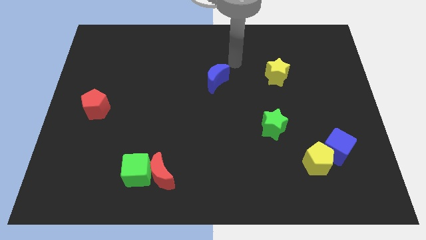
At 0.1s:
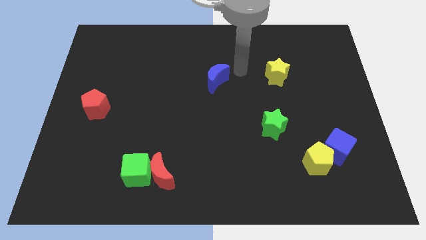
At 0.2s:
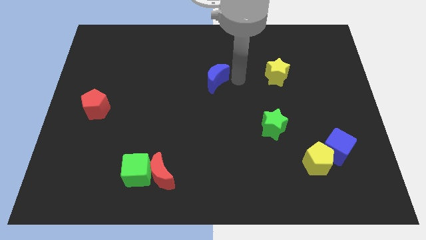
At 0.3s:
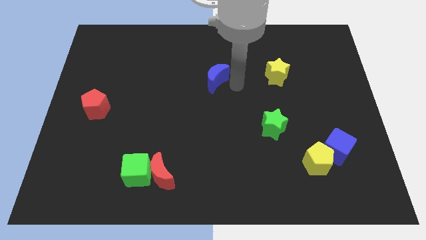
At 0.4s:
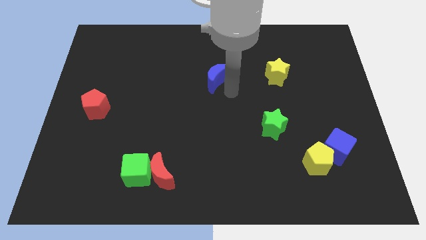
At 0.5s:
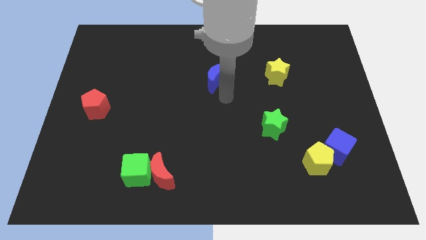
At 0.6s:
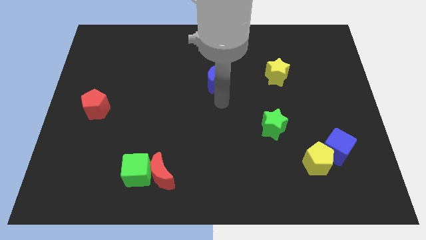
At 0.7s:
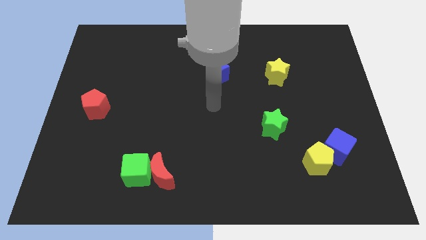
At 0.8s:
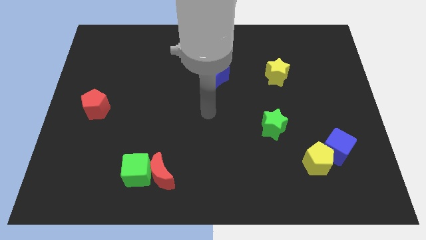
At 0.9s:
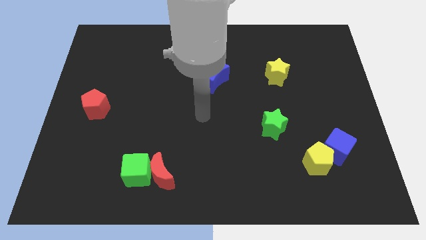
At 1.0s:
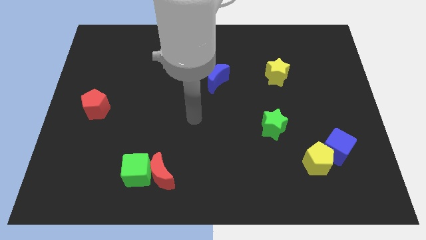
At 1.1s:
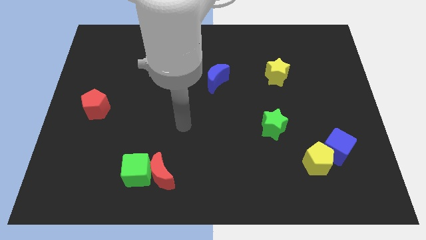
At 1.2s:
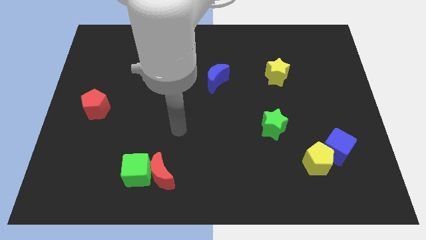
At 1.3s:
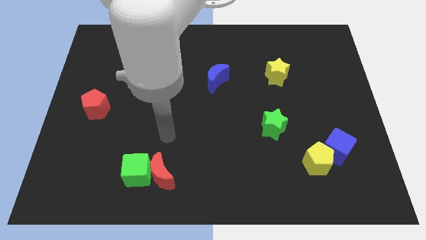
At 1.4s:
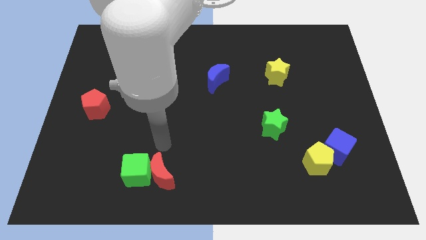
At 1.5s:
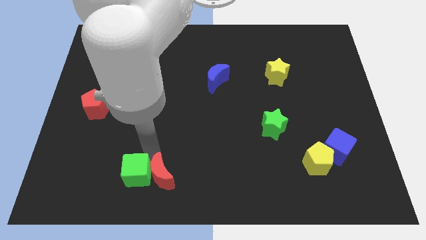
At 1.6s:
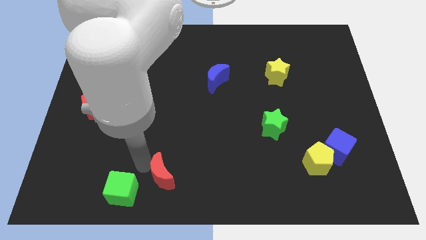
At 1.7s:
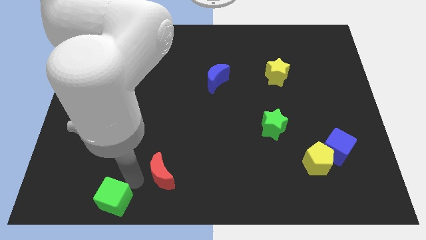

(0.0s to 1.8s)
move the red moon away from the green cube

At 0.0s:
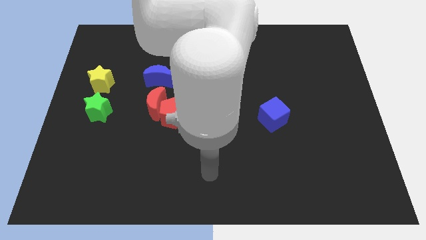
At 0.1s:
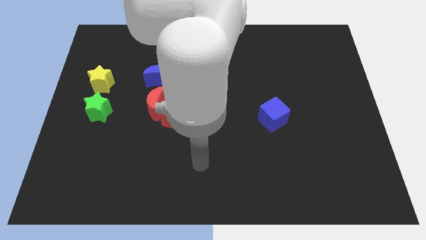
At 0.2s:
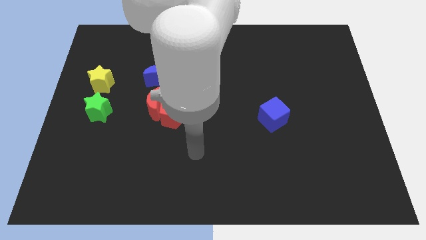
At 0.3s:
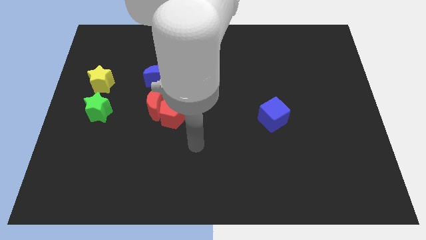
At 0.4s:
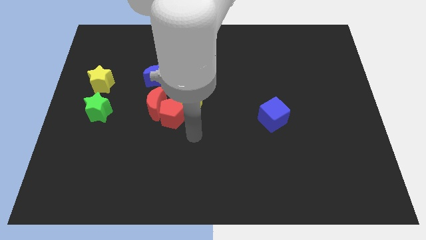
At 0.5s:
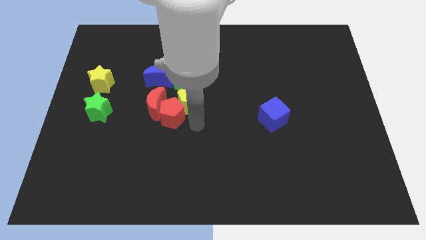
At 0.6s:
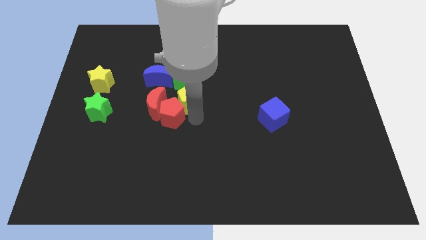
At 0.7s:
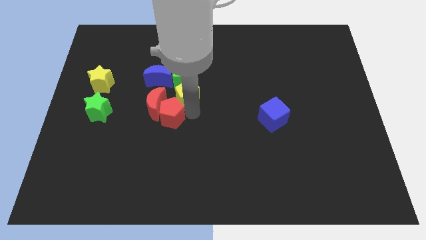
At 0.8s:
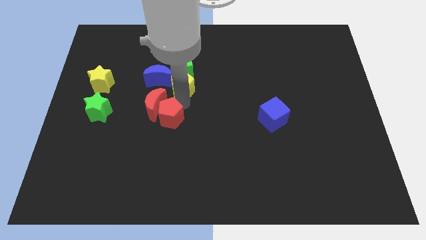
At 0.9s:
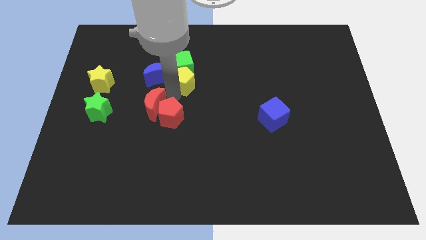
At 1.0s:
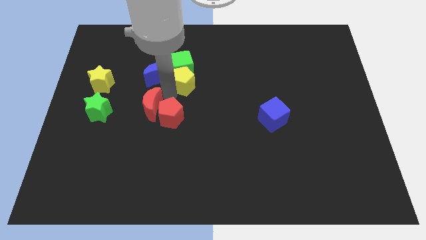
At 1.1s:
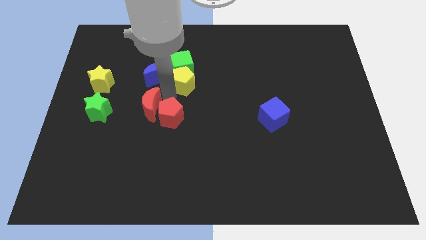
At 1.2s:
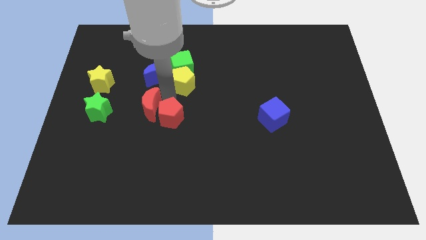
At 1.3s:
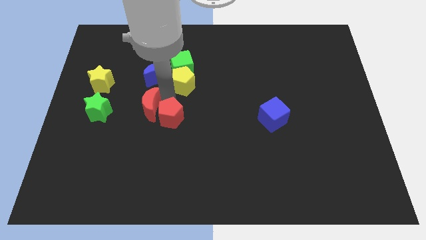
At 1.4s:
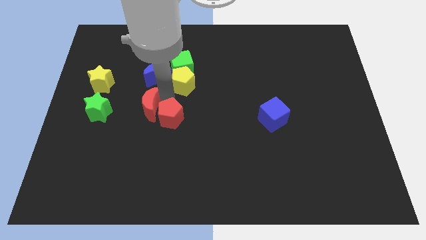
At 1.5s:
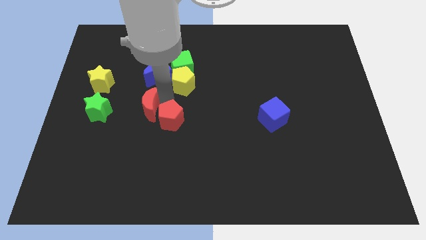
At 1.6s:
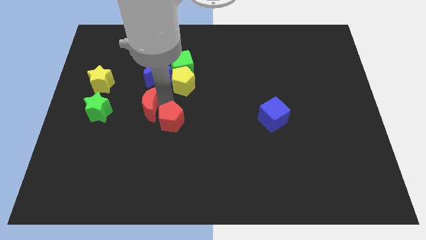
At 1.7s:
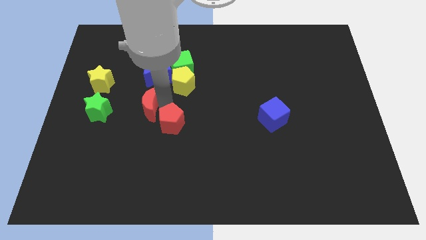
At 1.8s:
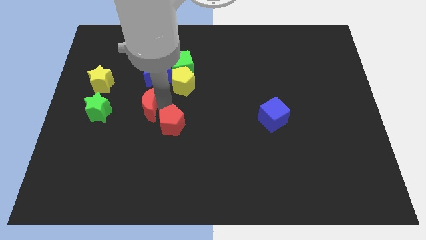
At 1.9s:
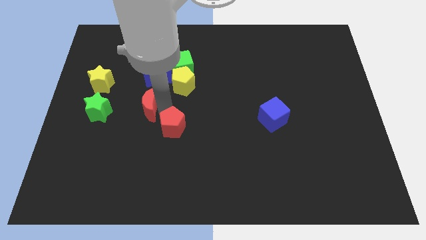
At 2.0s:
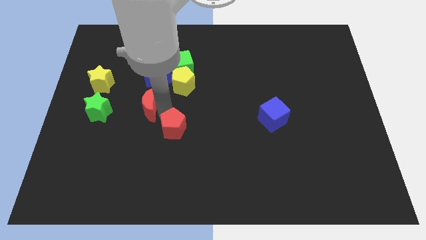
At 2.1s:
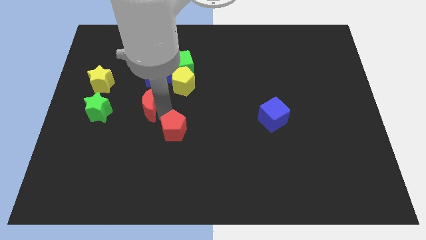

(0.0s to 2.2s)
pull the red pentagon apart from the red moon and yellow pentagon

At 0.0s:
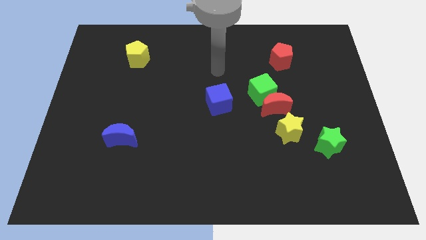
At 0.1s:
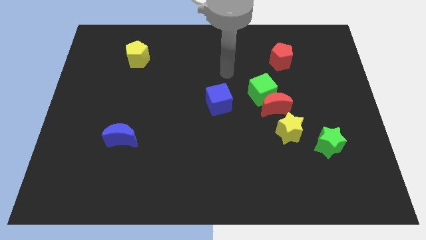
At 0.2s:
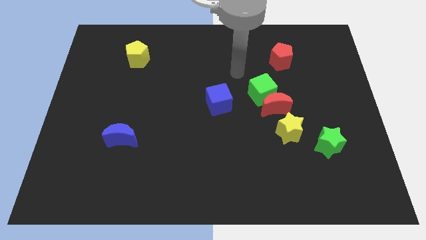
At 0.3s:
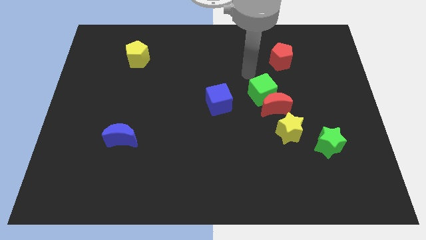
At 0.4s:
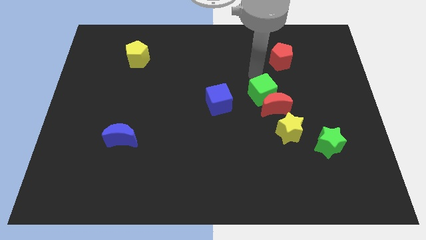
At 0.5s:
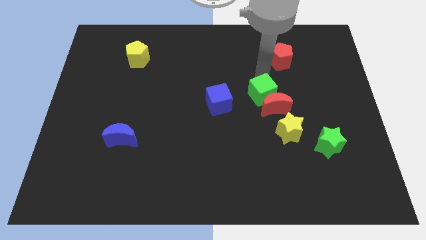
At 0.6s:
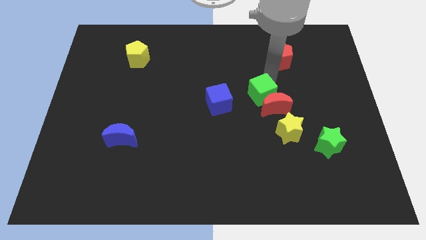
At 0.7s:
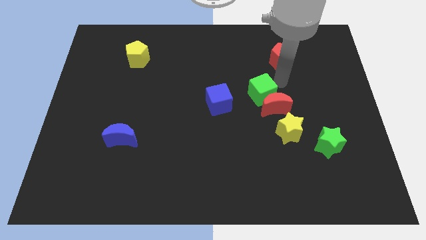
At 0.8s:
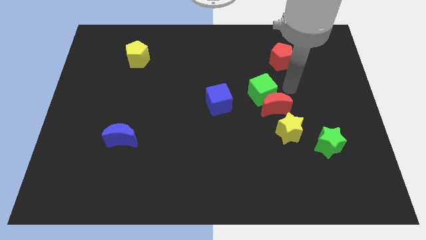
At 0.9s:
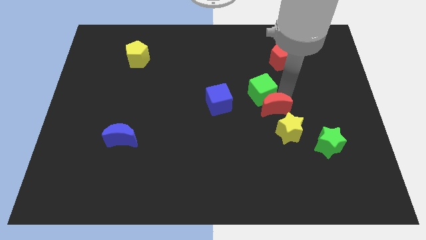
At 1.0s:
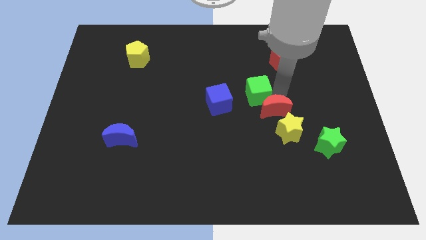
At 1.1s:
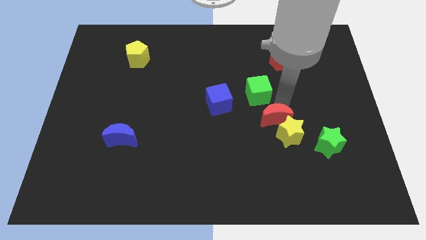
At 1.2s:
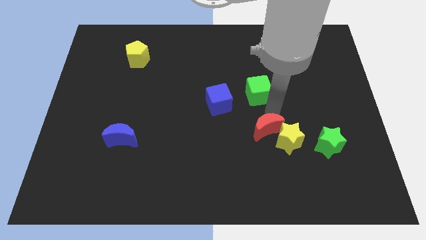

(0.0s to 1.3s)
move the green cube away from the red moon

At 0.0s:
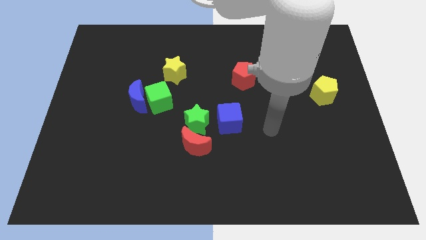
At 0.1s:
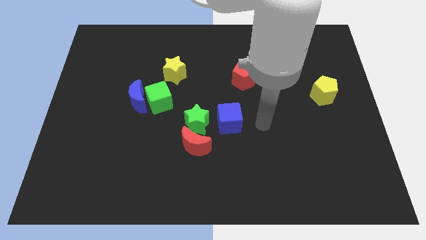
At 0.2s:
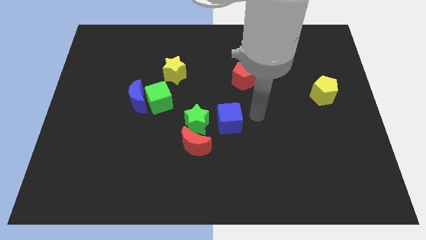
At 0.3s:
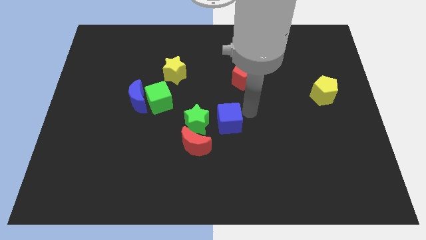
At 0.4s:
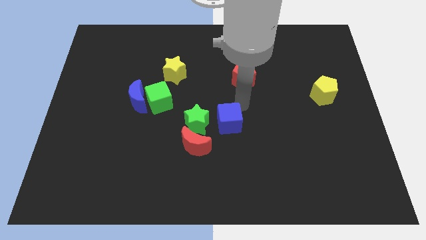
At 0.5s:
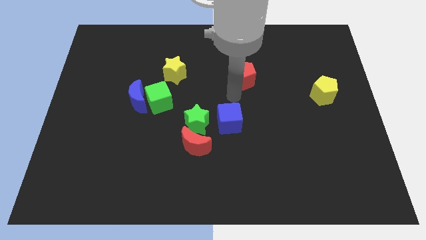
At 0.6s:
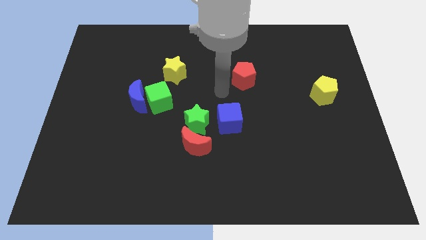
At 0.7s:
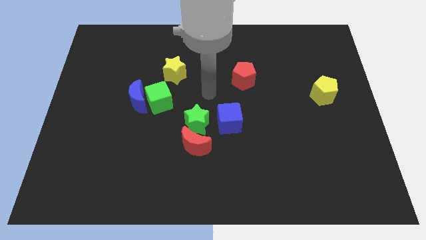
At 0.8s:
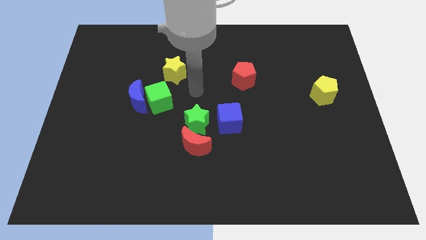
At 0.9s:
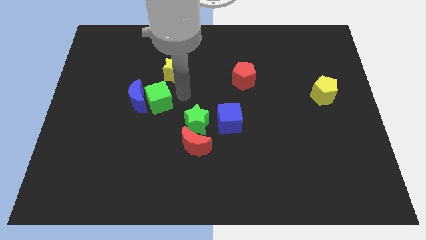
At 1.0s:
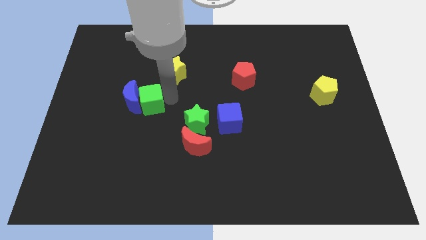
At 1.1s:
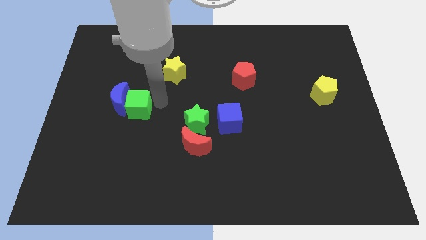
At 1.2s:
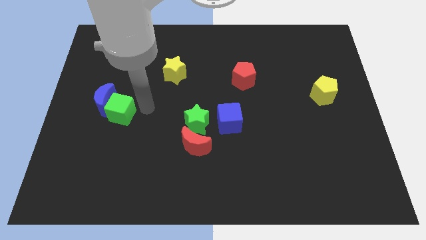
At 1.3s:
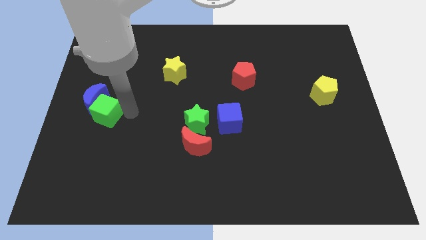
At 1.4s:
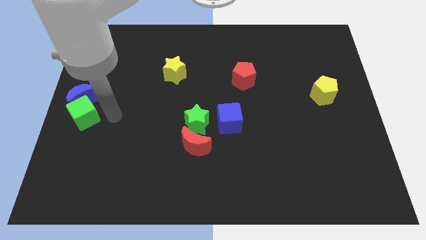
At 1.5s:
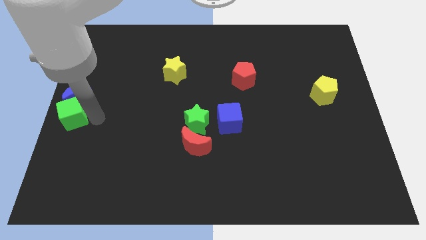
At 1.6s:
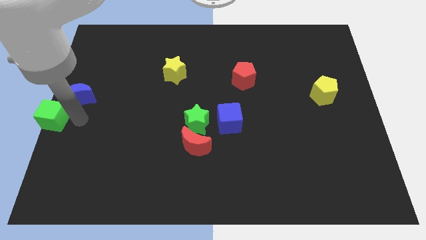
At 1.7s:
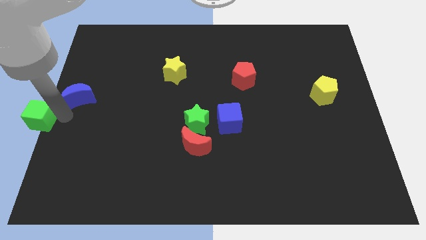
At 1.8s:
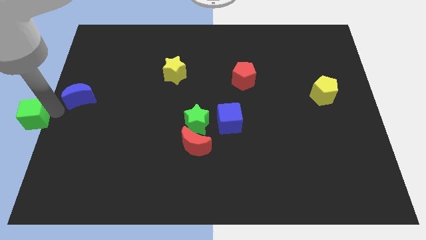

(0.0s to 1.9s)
pull the blue moon apart from the green cube

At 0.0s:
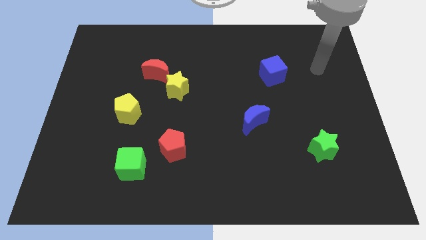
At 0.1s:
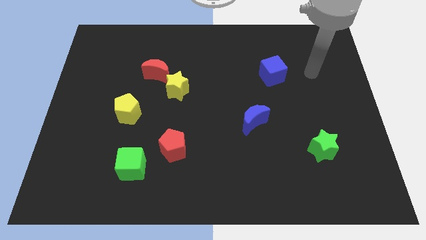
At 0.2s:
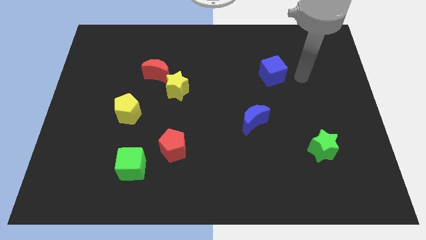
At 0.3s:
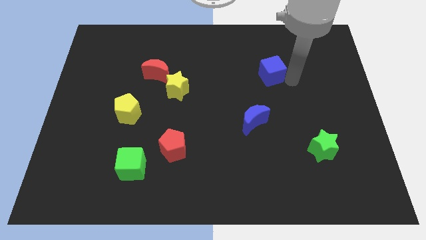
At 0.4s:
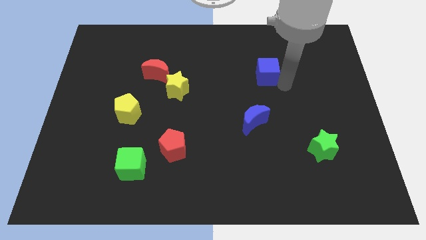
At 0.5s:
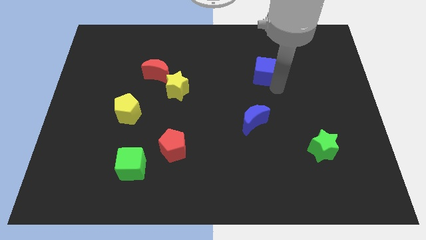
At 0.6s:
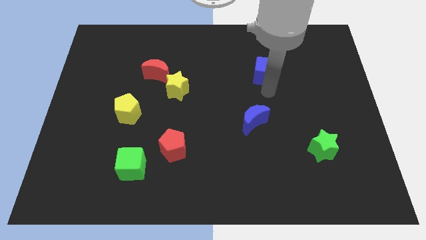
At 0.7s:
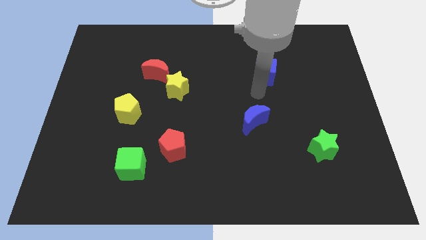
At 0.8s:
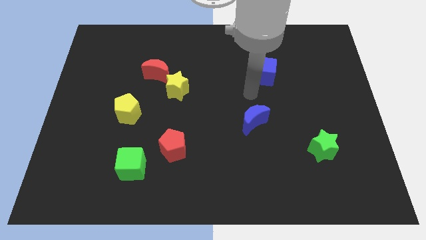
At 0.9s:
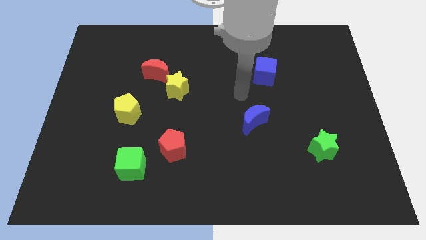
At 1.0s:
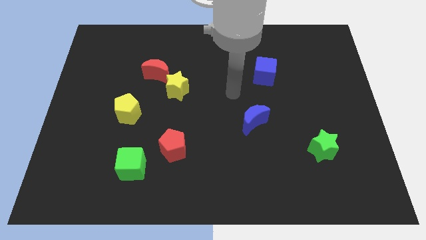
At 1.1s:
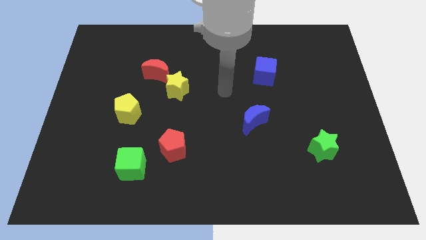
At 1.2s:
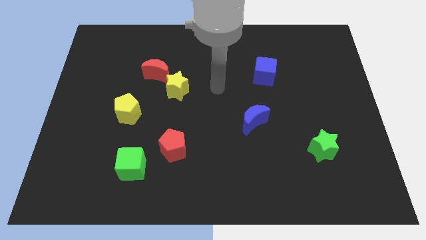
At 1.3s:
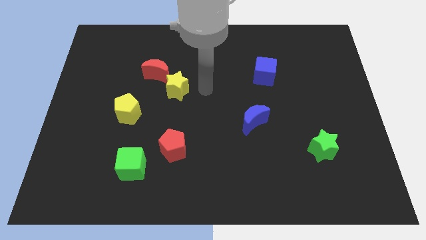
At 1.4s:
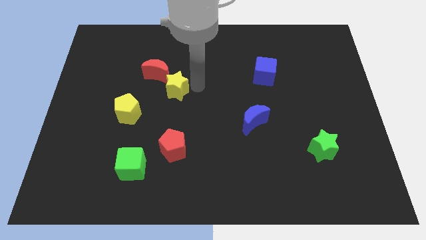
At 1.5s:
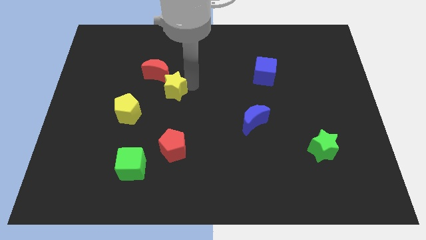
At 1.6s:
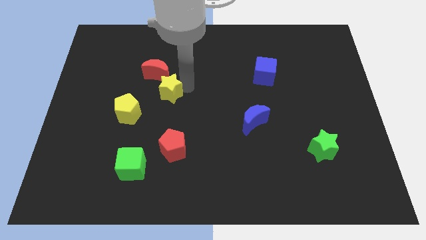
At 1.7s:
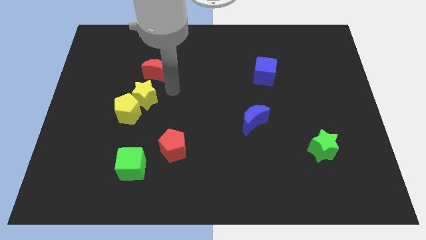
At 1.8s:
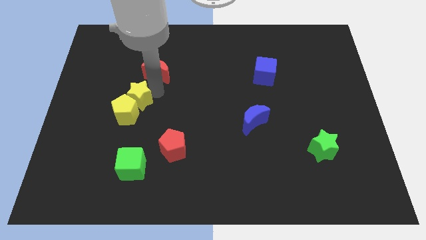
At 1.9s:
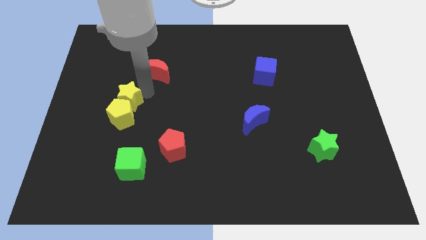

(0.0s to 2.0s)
pull the red moon apart from the yellow star

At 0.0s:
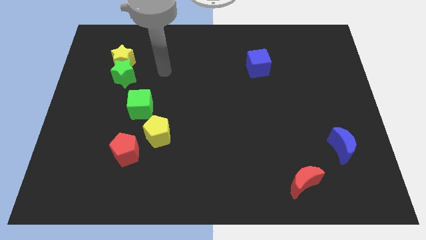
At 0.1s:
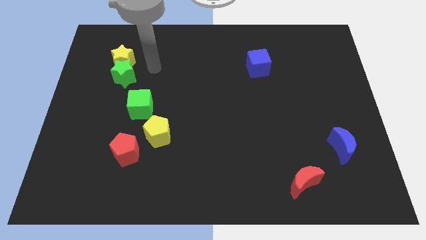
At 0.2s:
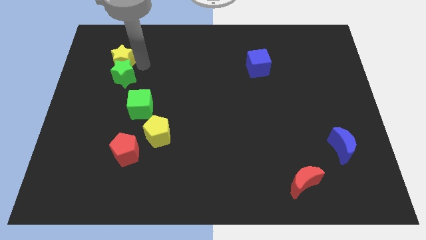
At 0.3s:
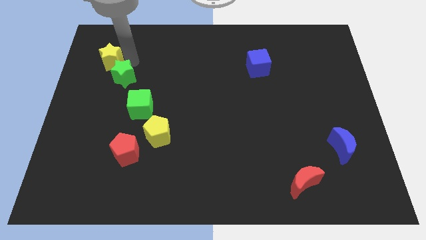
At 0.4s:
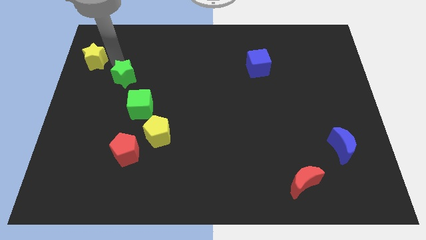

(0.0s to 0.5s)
move the green star away from the yellow star
